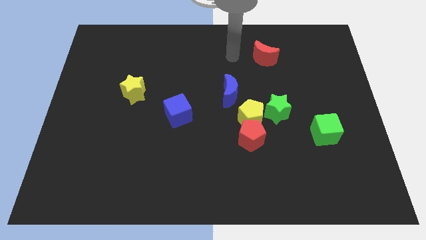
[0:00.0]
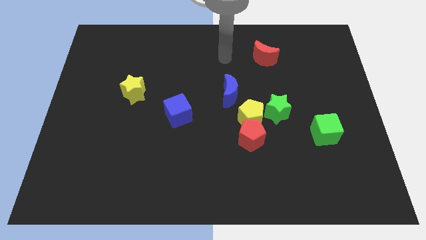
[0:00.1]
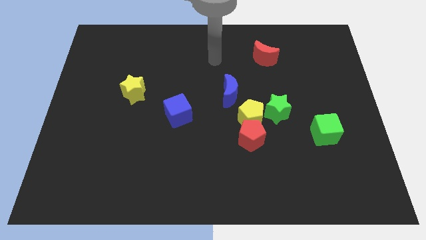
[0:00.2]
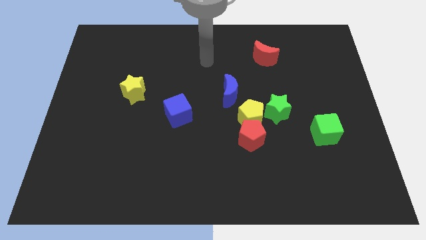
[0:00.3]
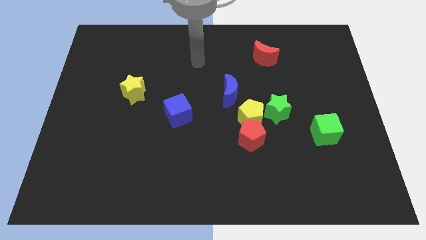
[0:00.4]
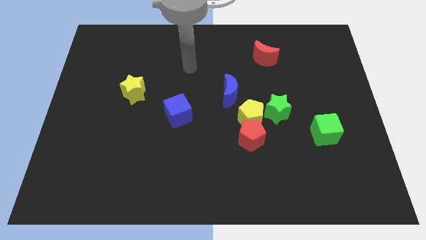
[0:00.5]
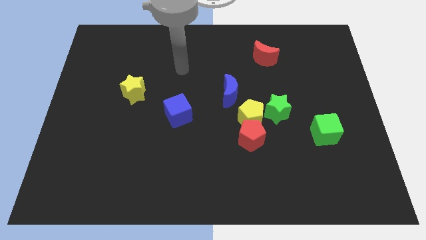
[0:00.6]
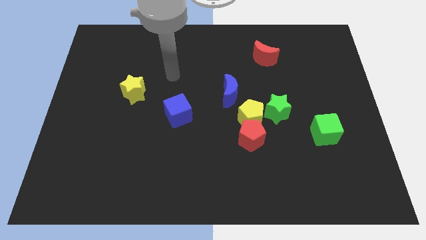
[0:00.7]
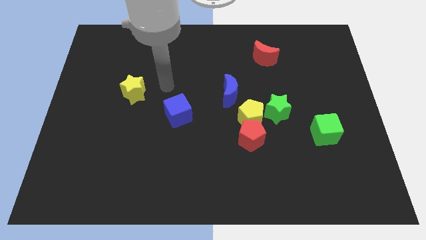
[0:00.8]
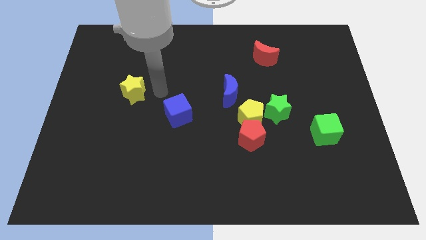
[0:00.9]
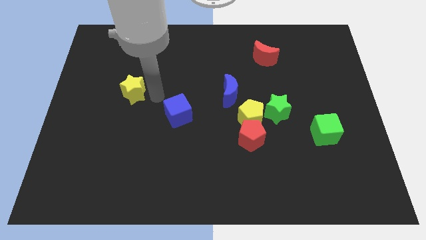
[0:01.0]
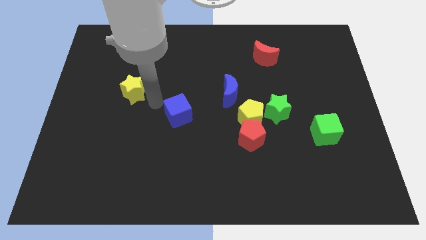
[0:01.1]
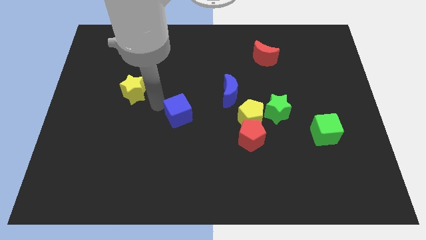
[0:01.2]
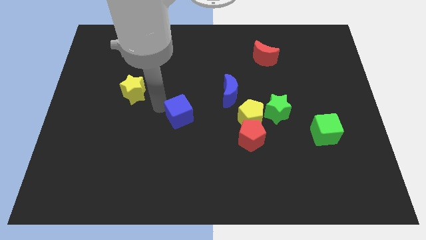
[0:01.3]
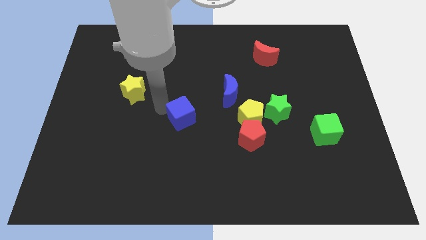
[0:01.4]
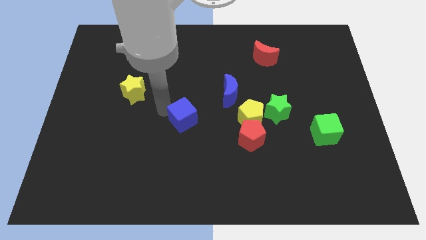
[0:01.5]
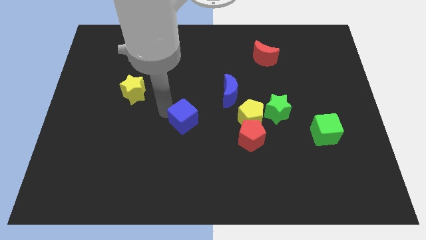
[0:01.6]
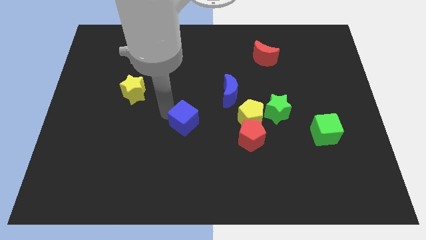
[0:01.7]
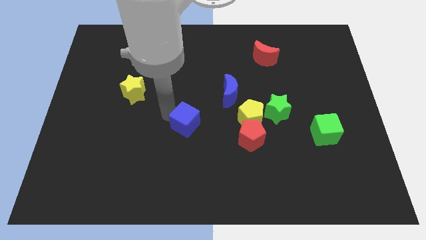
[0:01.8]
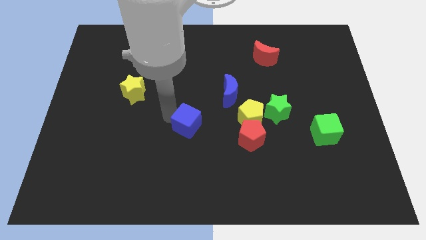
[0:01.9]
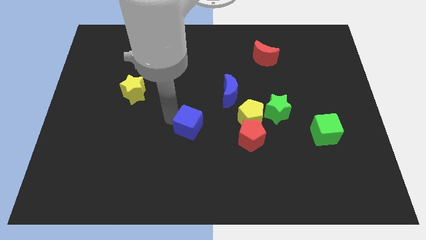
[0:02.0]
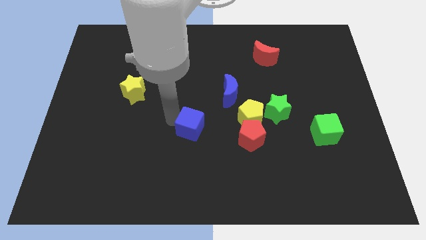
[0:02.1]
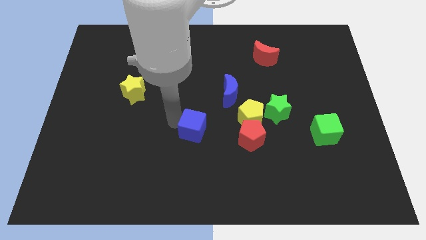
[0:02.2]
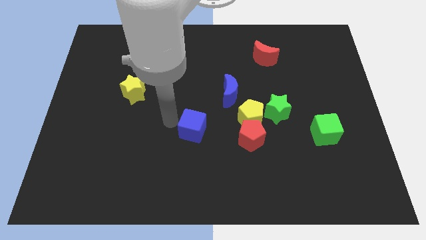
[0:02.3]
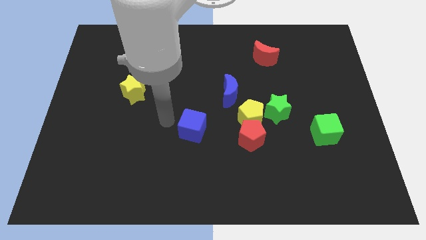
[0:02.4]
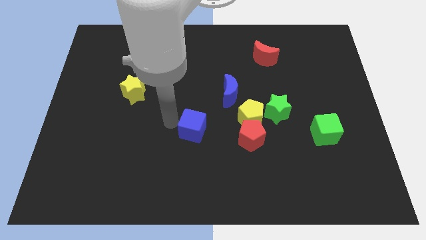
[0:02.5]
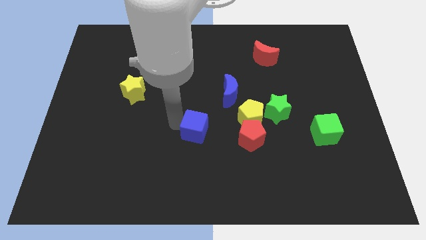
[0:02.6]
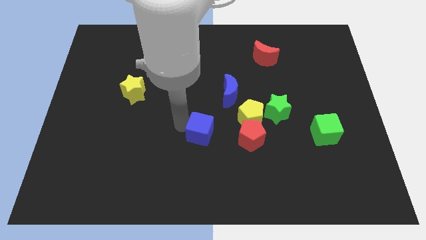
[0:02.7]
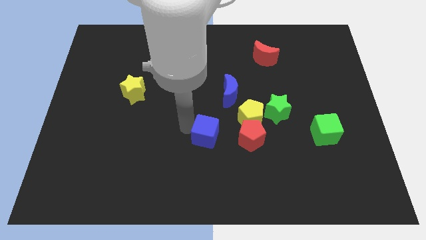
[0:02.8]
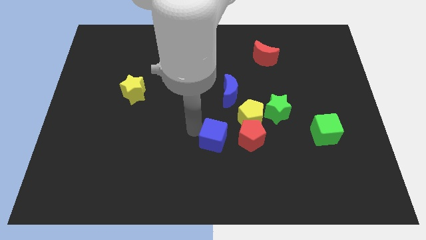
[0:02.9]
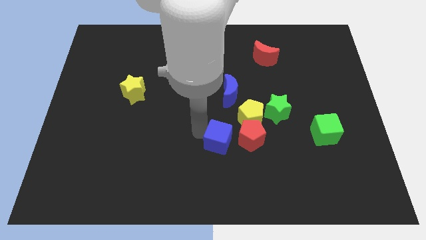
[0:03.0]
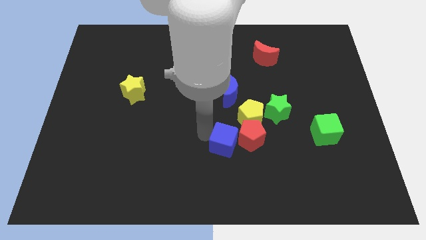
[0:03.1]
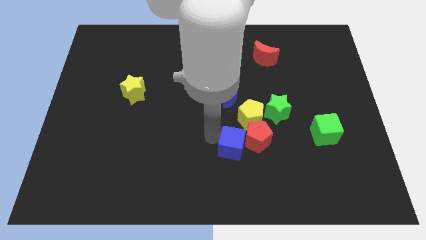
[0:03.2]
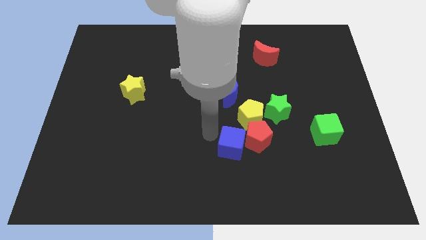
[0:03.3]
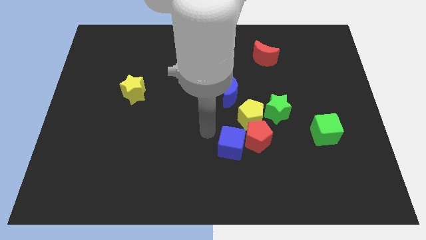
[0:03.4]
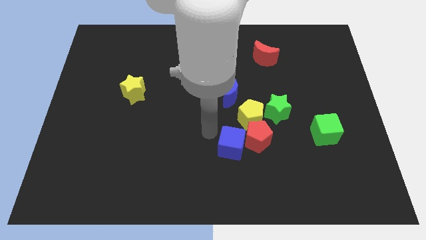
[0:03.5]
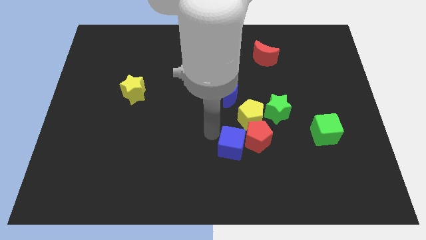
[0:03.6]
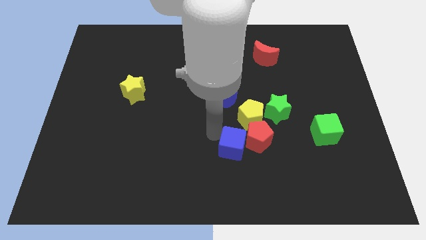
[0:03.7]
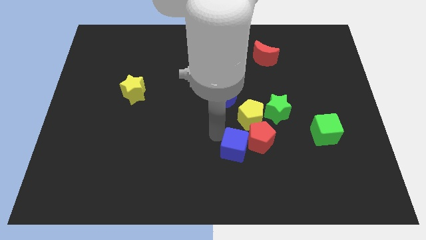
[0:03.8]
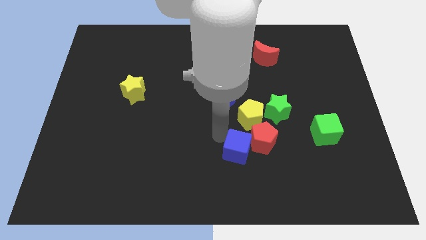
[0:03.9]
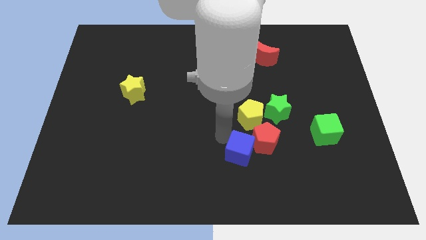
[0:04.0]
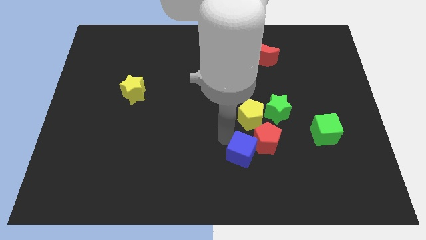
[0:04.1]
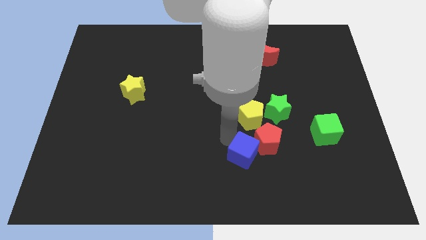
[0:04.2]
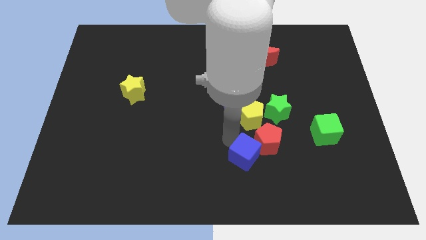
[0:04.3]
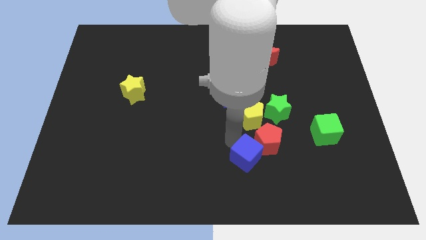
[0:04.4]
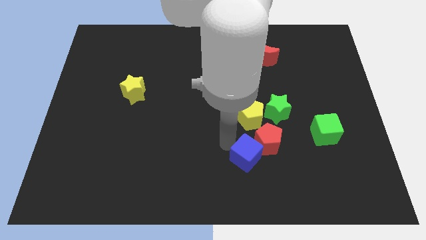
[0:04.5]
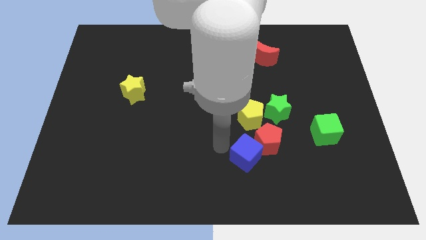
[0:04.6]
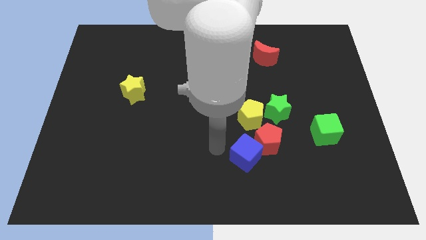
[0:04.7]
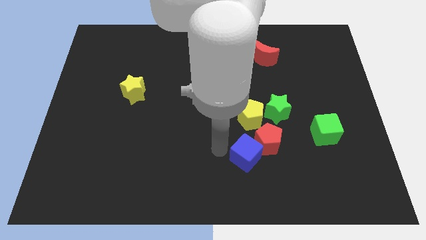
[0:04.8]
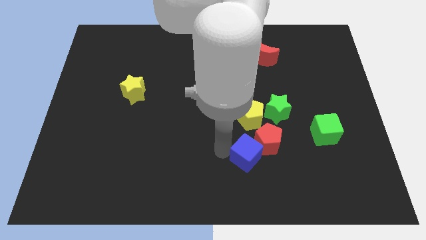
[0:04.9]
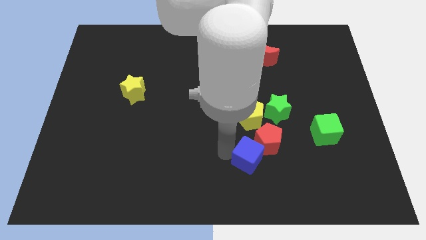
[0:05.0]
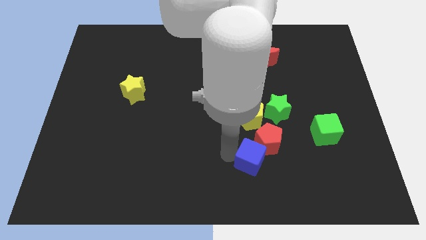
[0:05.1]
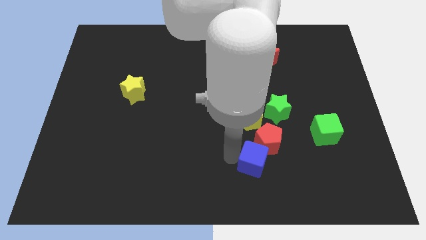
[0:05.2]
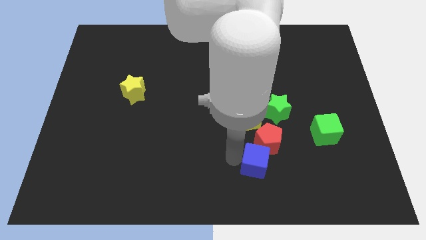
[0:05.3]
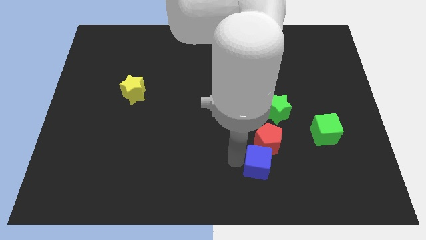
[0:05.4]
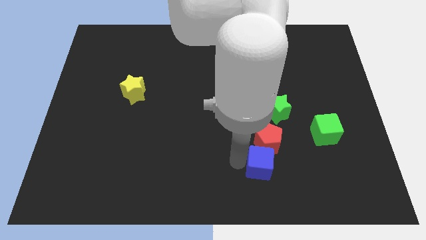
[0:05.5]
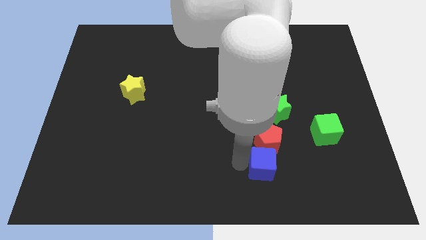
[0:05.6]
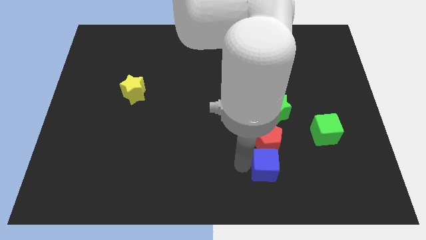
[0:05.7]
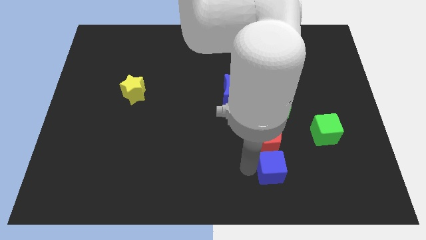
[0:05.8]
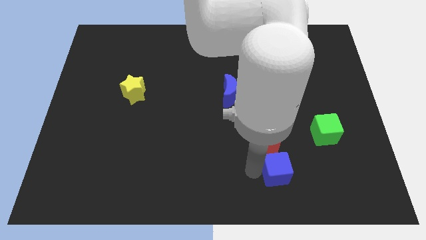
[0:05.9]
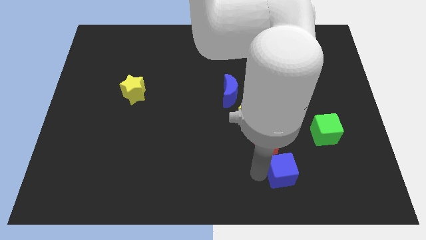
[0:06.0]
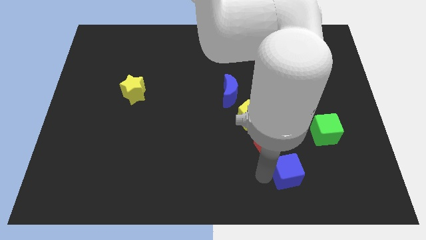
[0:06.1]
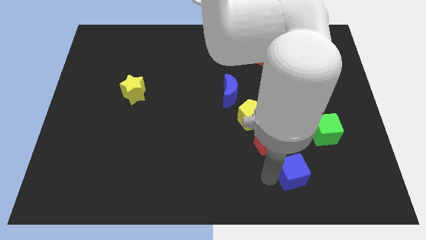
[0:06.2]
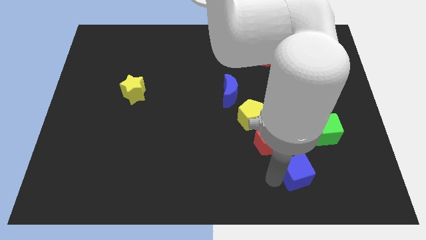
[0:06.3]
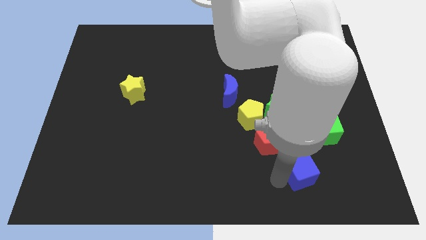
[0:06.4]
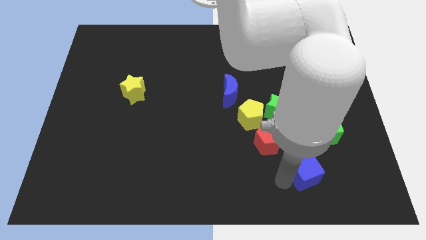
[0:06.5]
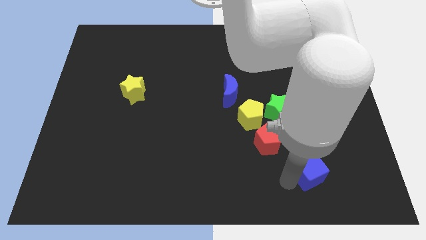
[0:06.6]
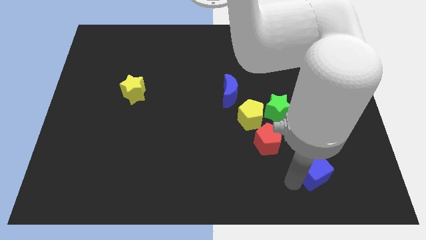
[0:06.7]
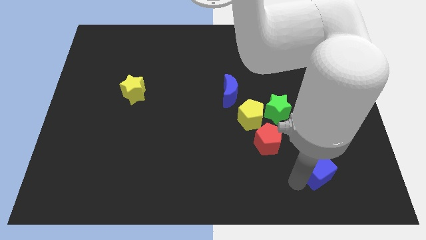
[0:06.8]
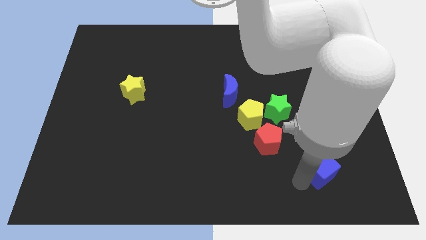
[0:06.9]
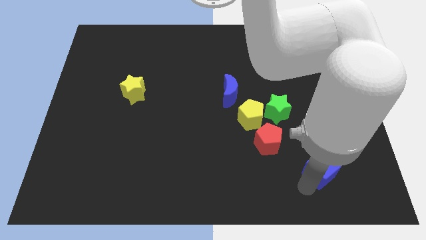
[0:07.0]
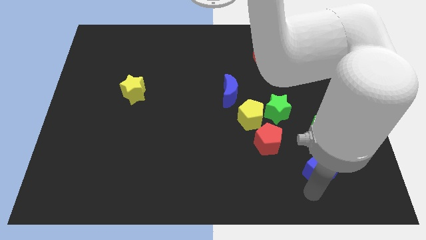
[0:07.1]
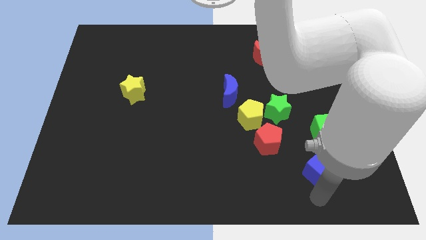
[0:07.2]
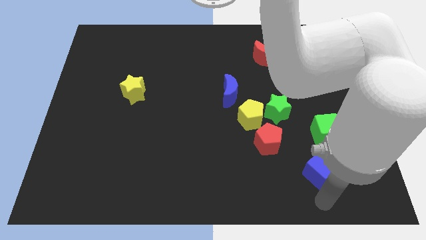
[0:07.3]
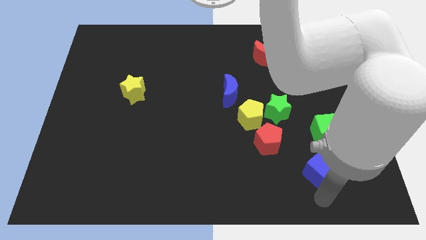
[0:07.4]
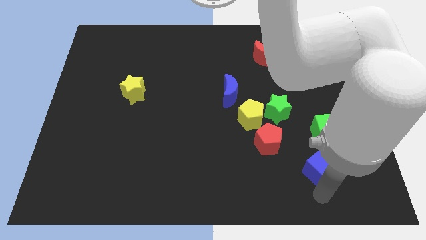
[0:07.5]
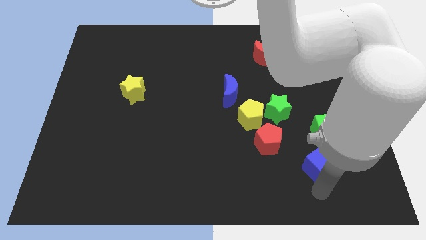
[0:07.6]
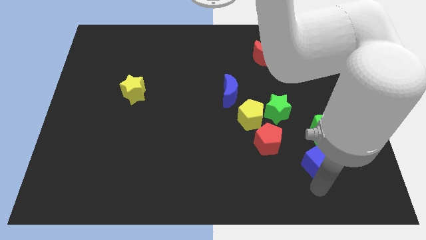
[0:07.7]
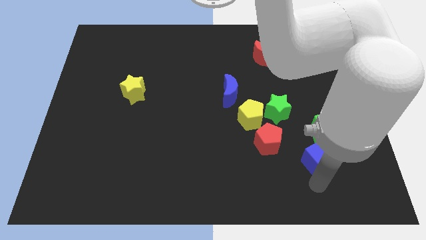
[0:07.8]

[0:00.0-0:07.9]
move the blue cube to the right of the red pentagon
